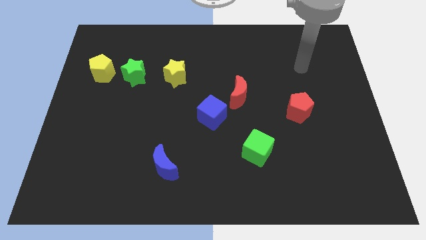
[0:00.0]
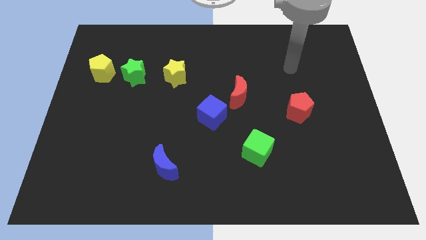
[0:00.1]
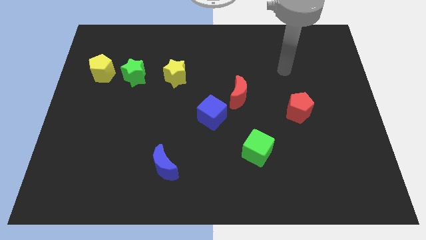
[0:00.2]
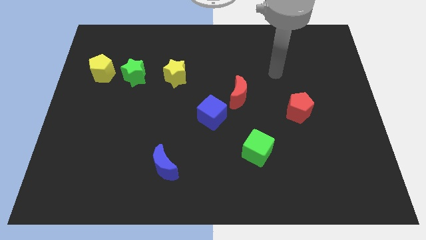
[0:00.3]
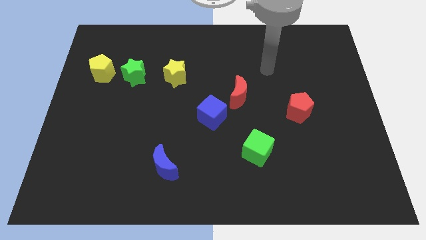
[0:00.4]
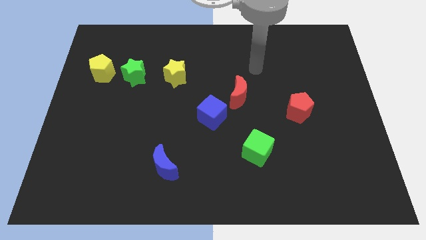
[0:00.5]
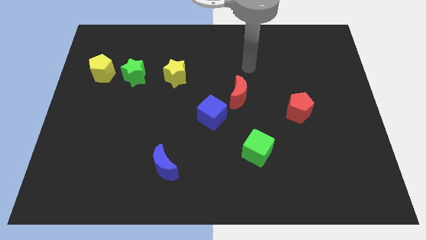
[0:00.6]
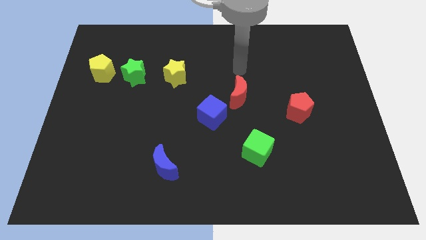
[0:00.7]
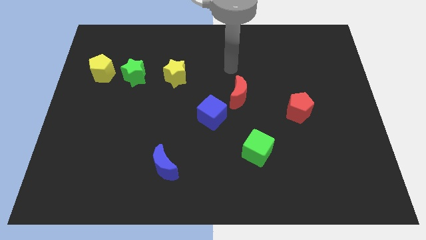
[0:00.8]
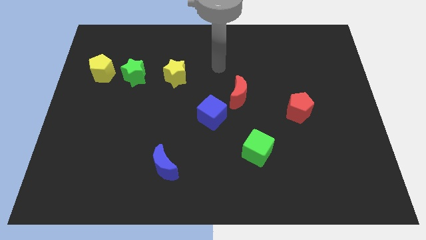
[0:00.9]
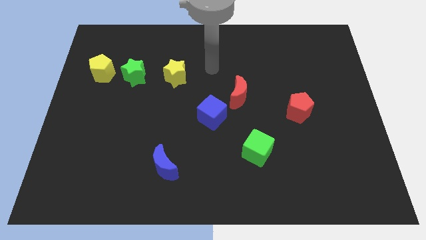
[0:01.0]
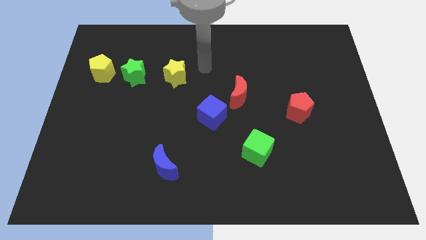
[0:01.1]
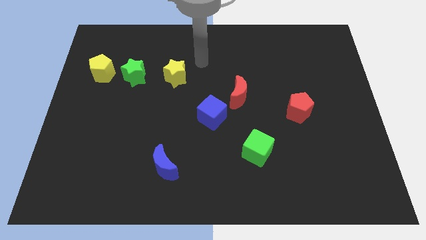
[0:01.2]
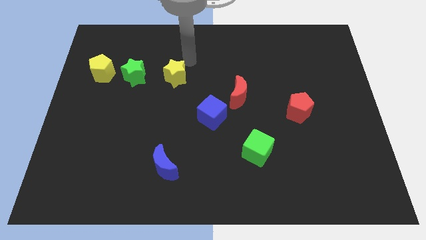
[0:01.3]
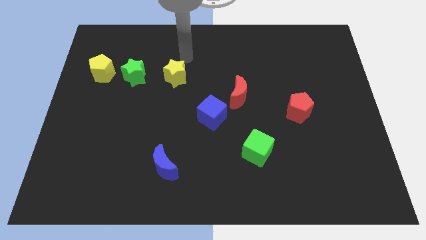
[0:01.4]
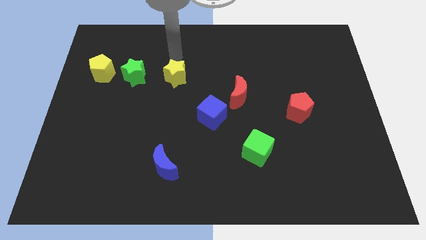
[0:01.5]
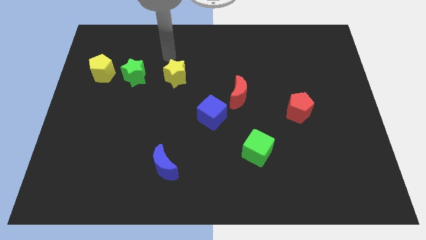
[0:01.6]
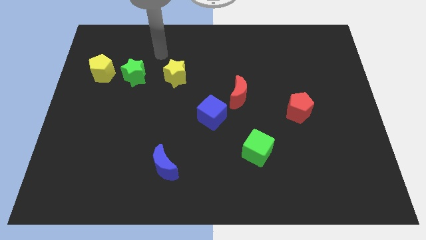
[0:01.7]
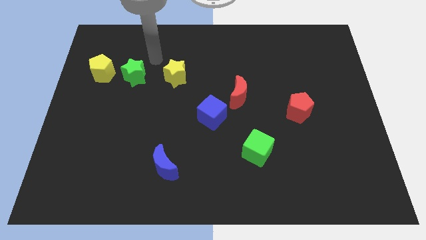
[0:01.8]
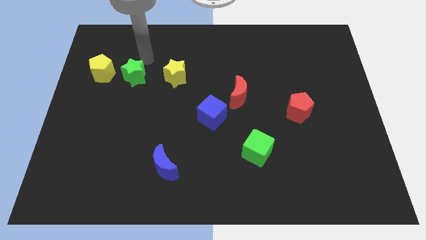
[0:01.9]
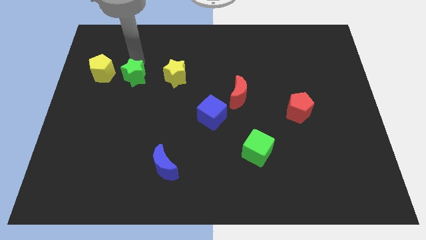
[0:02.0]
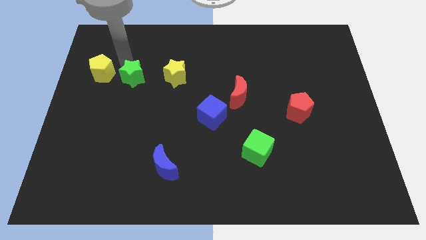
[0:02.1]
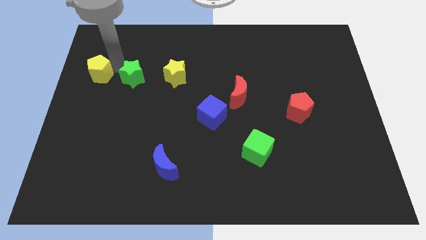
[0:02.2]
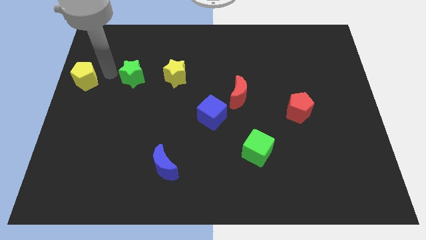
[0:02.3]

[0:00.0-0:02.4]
separate the green star from the yellow pentagon

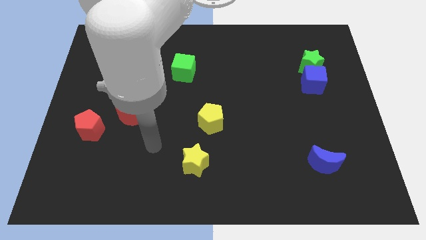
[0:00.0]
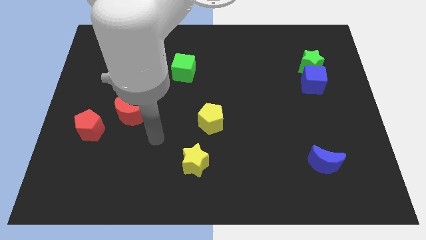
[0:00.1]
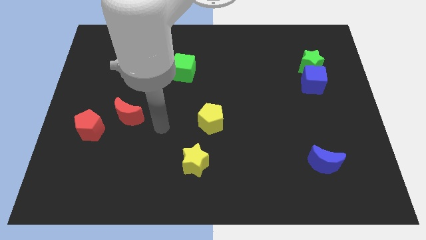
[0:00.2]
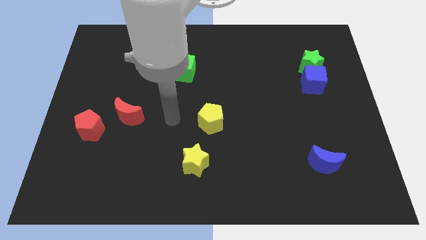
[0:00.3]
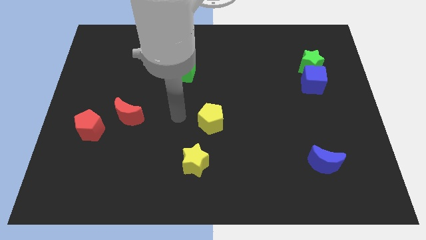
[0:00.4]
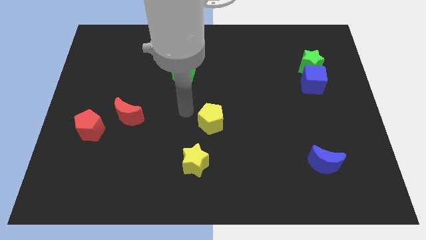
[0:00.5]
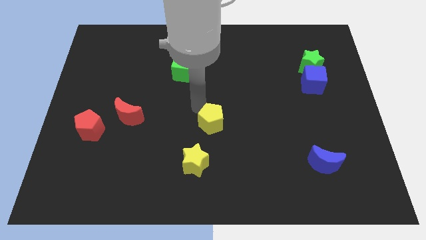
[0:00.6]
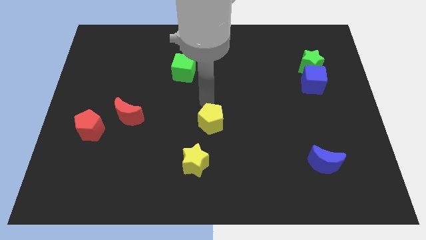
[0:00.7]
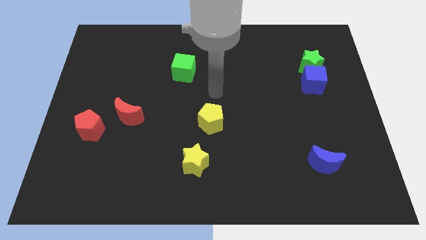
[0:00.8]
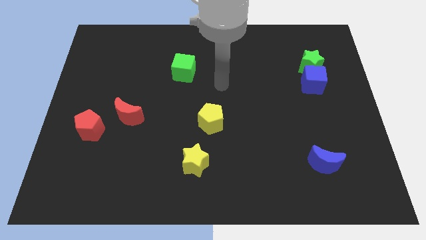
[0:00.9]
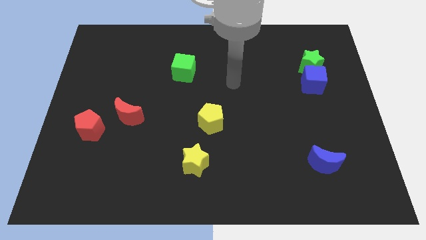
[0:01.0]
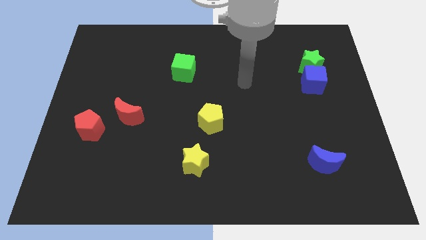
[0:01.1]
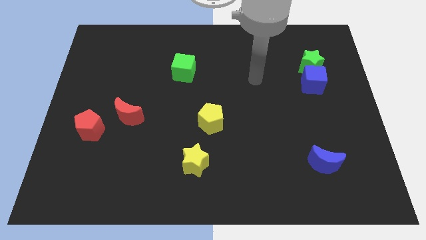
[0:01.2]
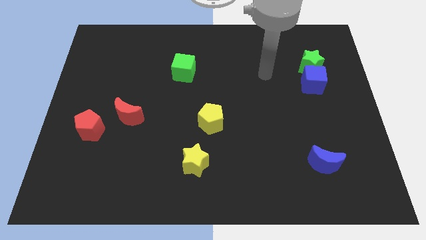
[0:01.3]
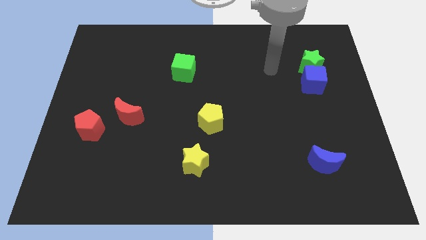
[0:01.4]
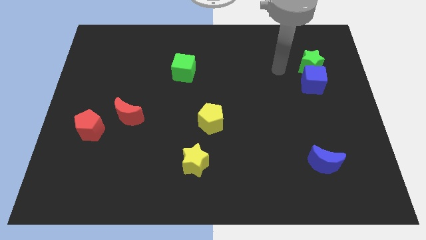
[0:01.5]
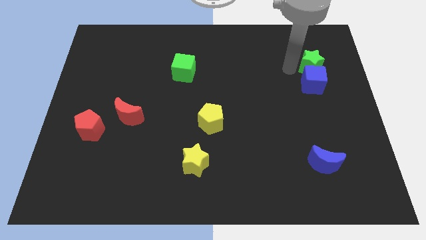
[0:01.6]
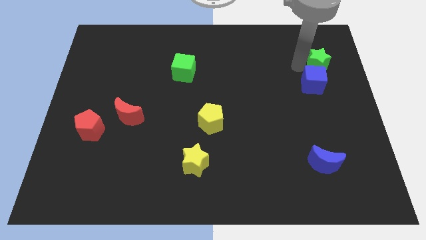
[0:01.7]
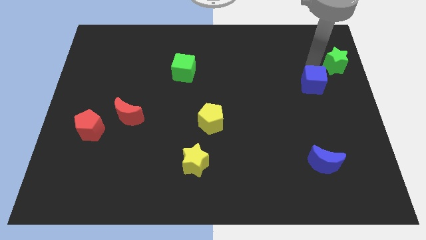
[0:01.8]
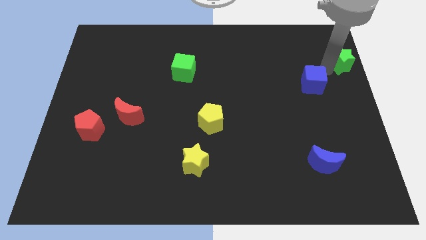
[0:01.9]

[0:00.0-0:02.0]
separate the blue cube from the green star

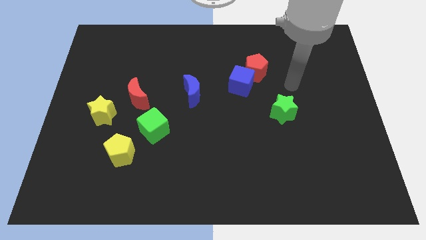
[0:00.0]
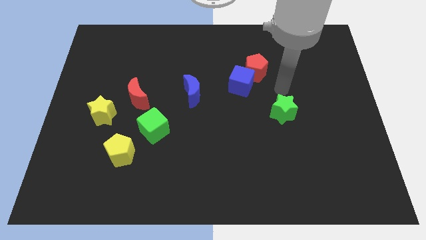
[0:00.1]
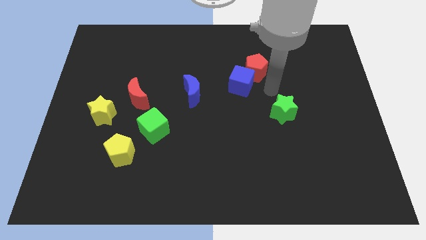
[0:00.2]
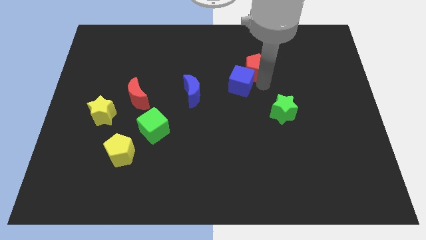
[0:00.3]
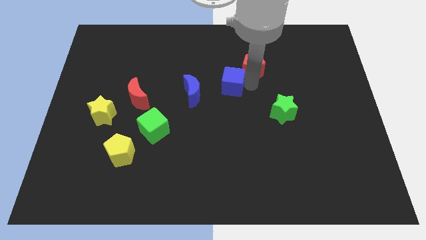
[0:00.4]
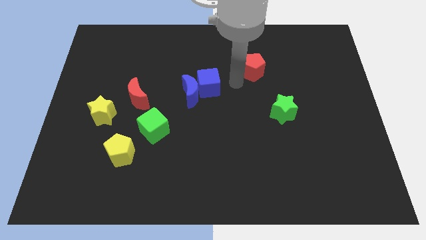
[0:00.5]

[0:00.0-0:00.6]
pull the red pentagon apart from the blue cube

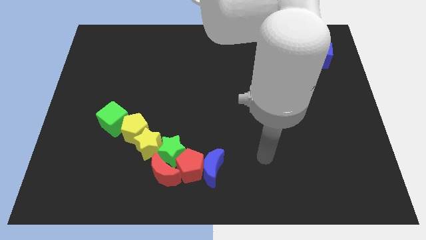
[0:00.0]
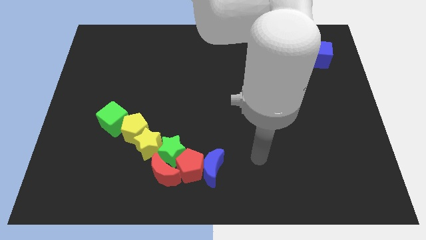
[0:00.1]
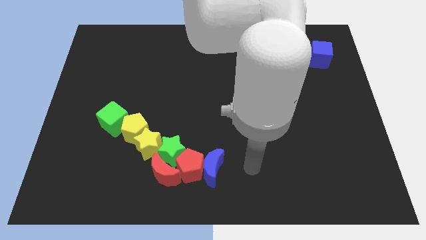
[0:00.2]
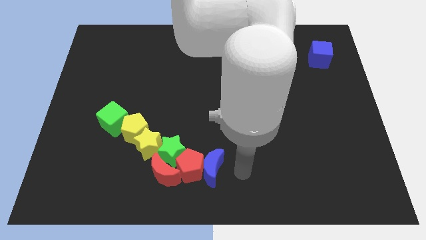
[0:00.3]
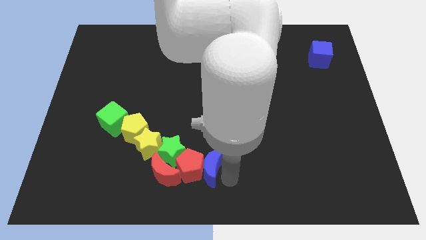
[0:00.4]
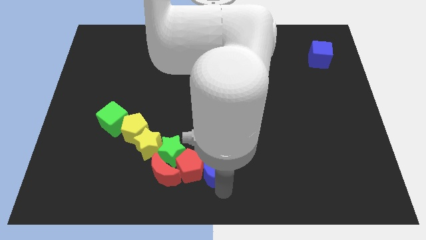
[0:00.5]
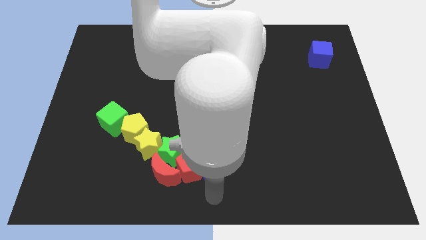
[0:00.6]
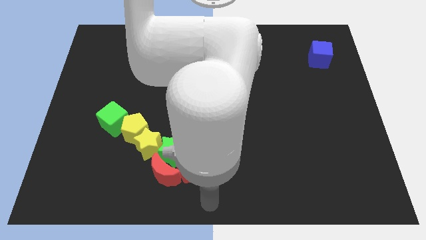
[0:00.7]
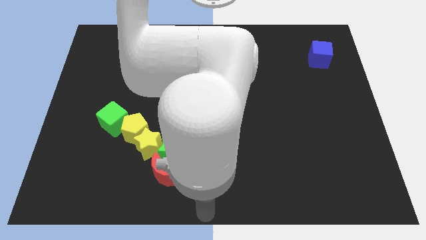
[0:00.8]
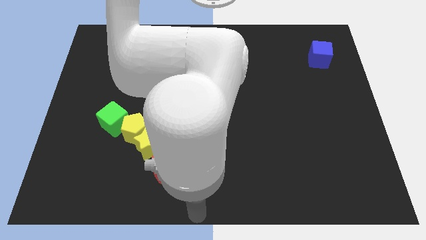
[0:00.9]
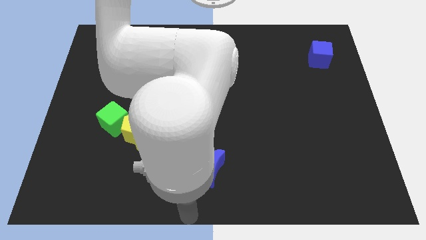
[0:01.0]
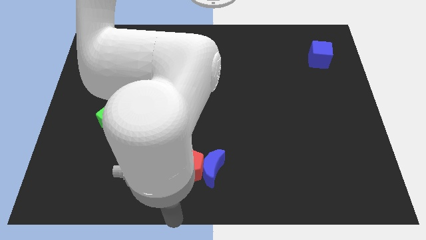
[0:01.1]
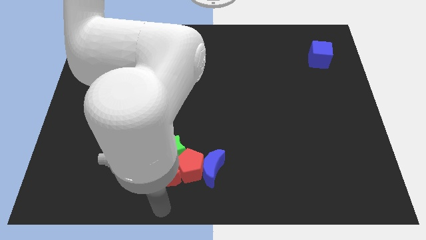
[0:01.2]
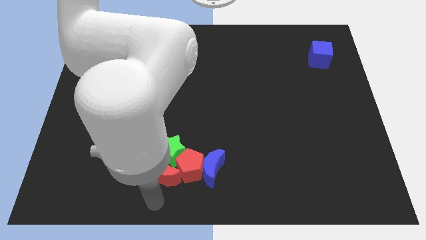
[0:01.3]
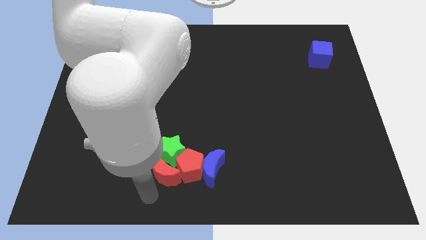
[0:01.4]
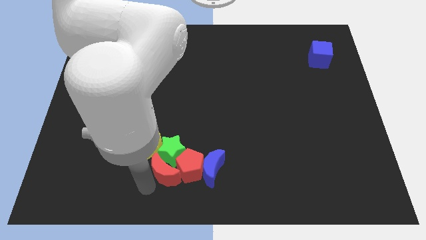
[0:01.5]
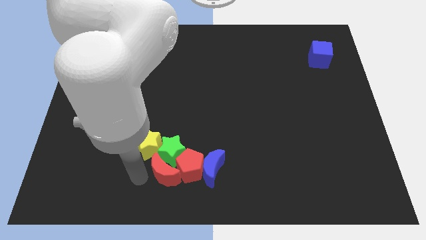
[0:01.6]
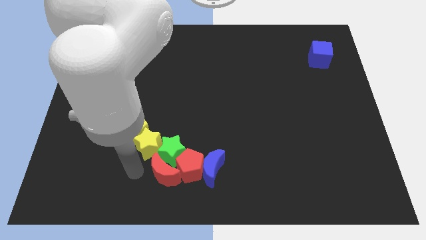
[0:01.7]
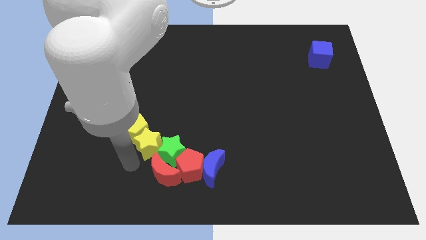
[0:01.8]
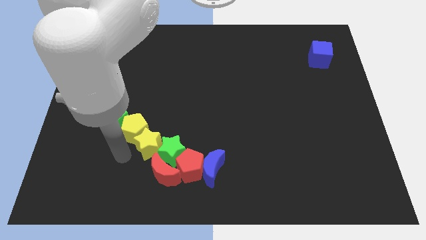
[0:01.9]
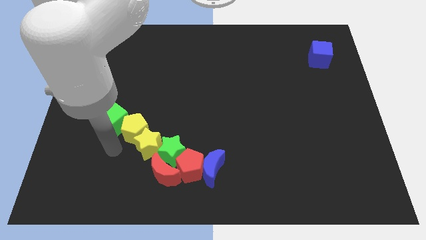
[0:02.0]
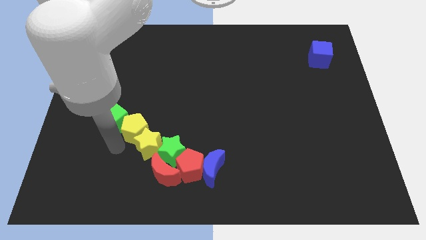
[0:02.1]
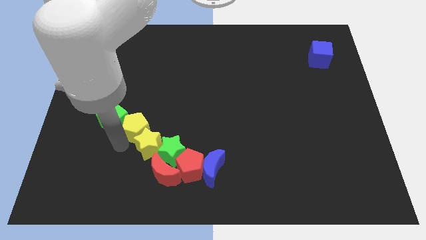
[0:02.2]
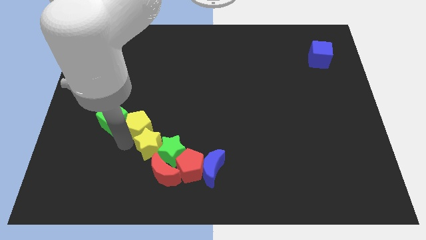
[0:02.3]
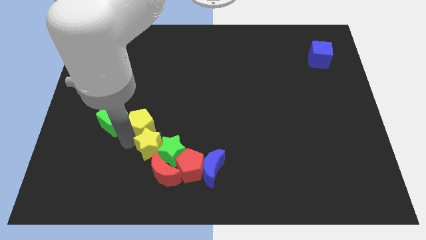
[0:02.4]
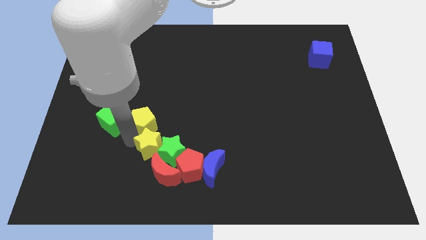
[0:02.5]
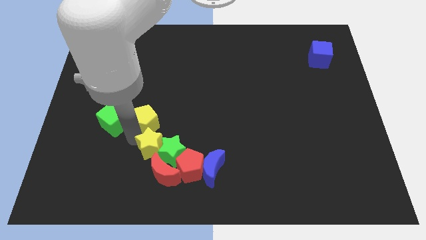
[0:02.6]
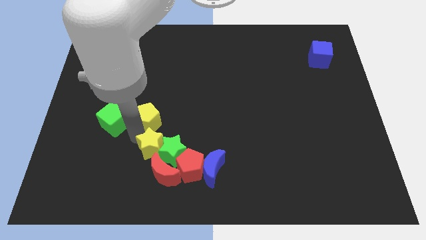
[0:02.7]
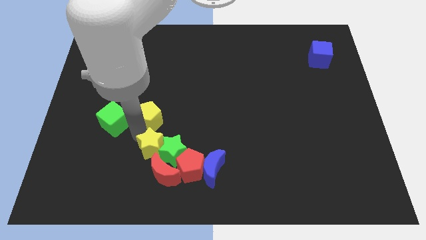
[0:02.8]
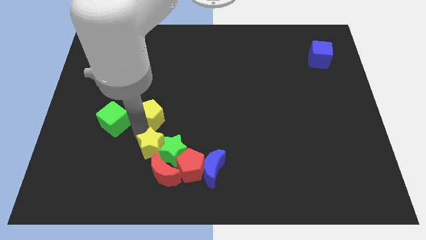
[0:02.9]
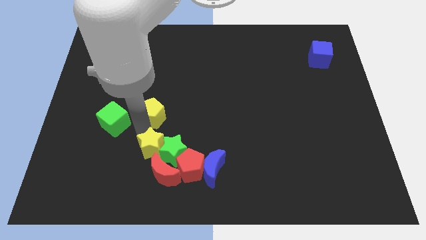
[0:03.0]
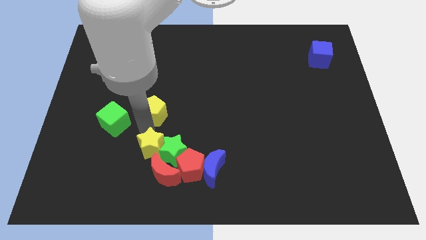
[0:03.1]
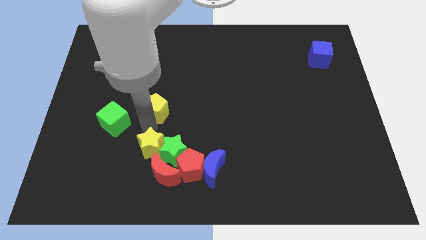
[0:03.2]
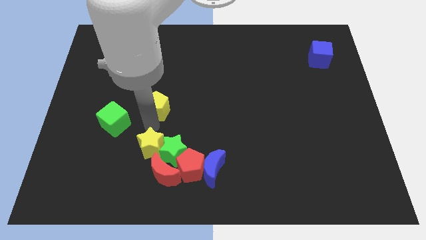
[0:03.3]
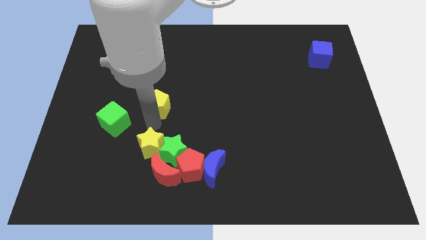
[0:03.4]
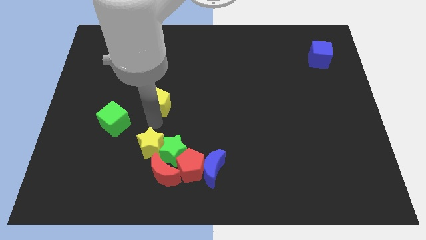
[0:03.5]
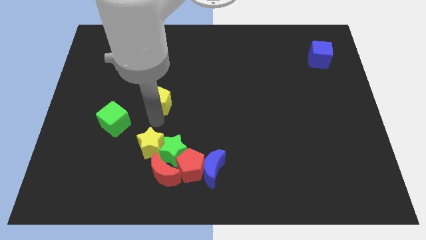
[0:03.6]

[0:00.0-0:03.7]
move the yellow pentagon away from the yellow star and green cube

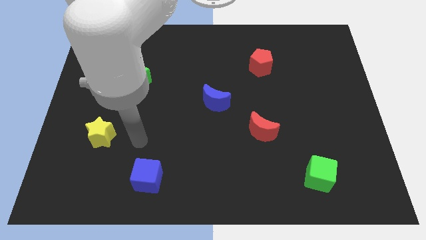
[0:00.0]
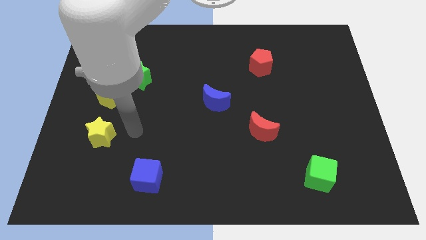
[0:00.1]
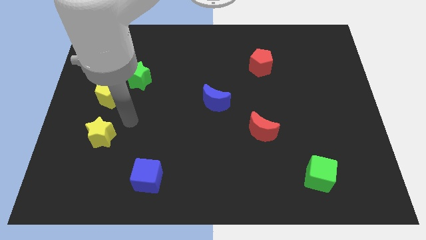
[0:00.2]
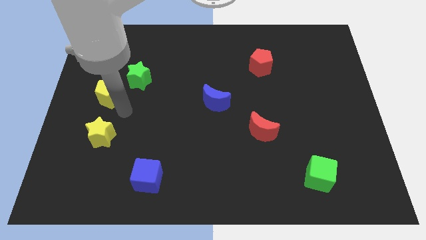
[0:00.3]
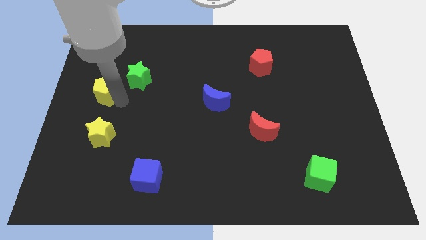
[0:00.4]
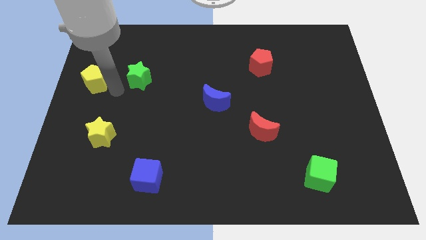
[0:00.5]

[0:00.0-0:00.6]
pull the green star apart from the yellow pentagon
